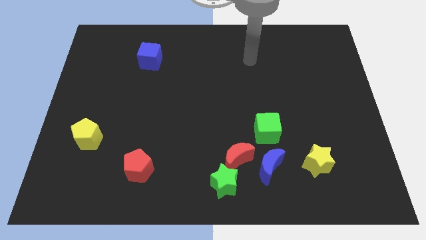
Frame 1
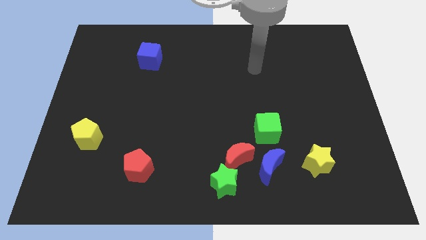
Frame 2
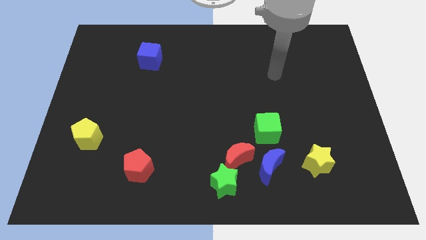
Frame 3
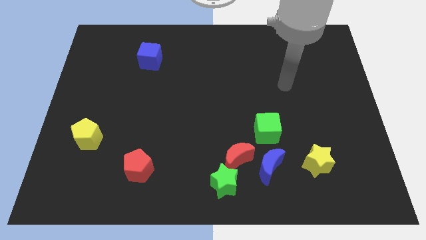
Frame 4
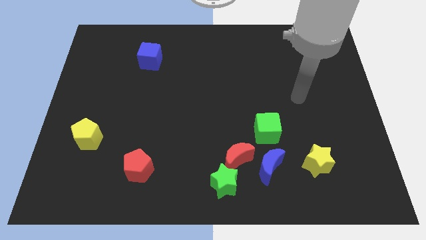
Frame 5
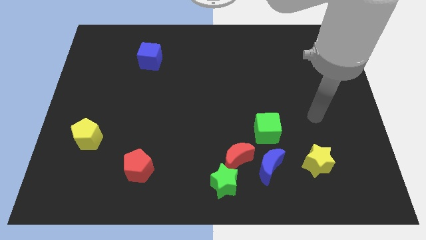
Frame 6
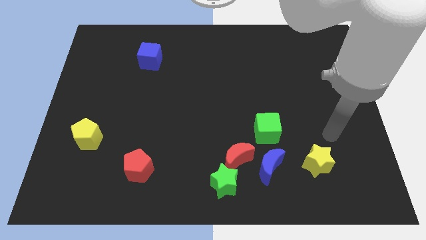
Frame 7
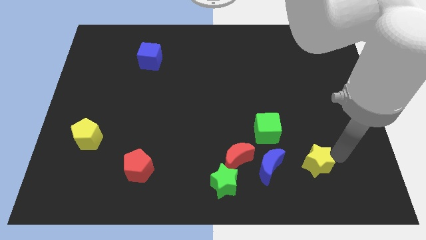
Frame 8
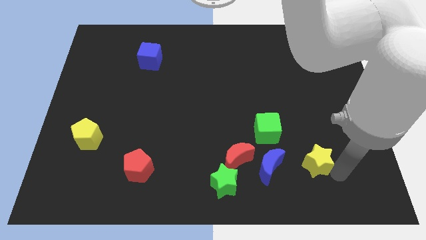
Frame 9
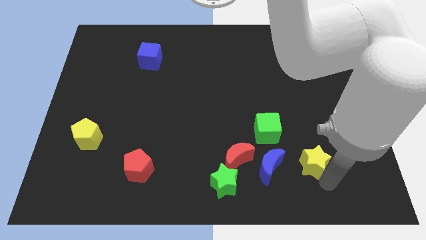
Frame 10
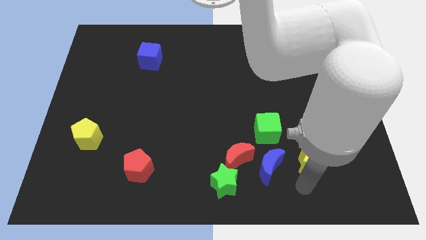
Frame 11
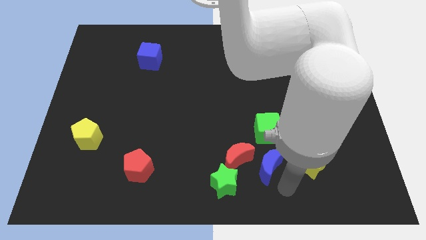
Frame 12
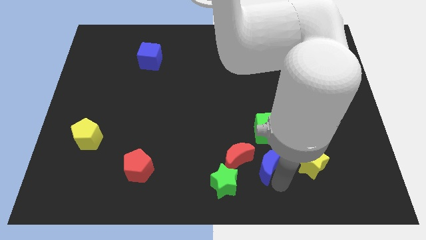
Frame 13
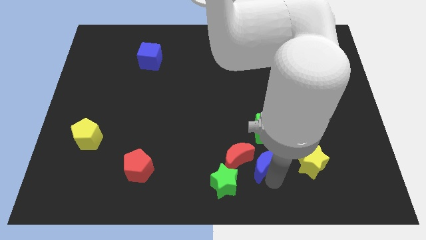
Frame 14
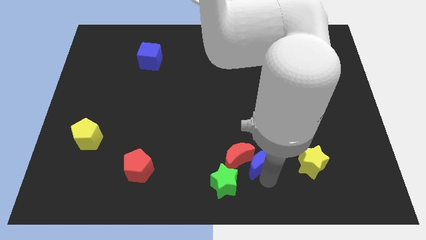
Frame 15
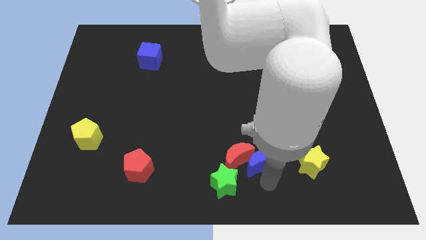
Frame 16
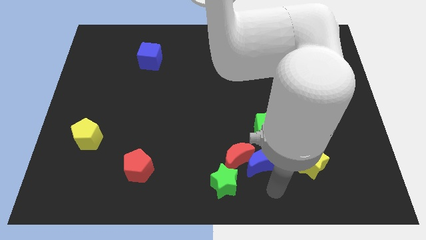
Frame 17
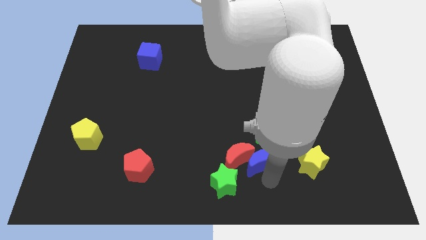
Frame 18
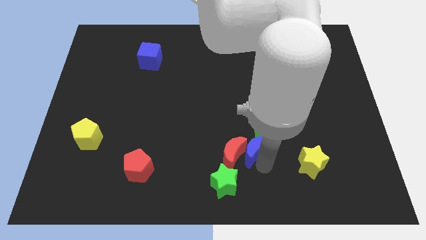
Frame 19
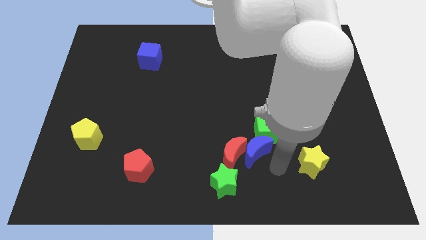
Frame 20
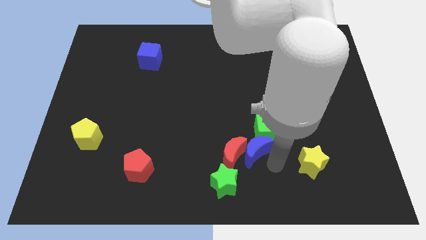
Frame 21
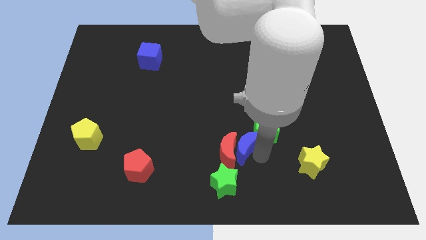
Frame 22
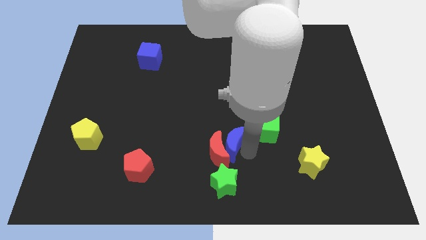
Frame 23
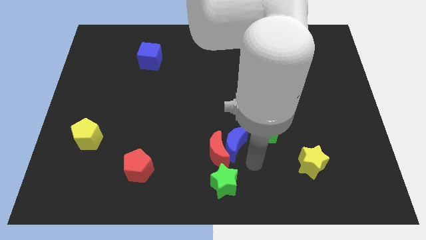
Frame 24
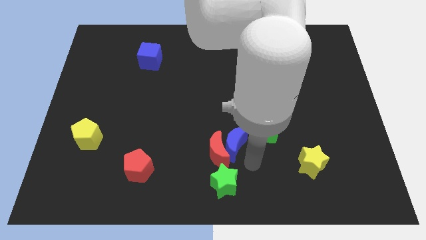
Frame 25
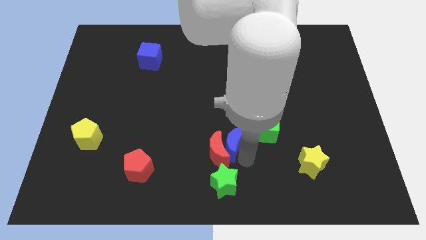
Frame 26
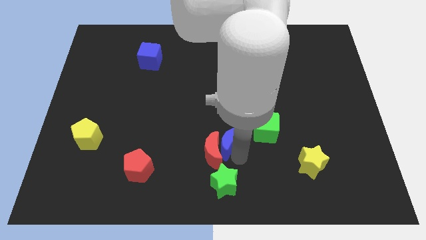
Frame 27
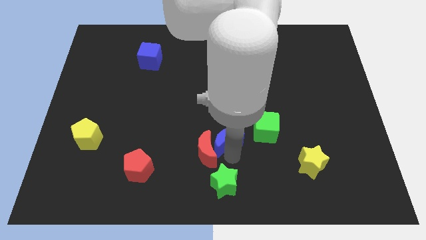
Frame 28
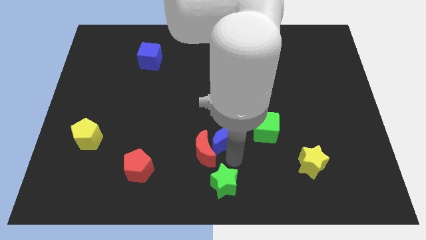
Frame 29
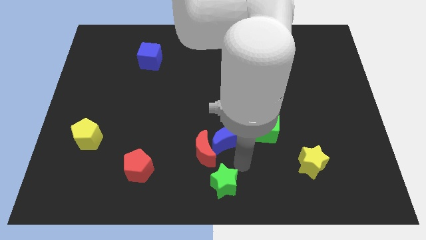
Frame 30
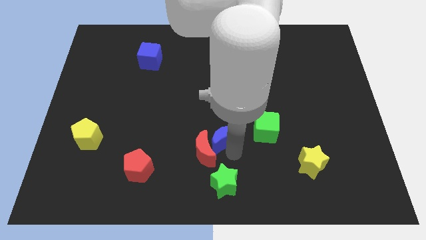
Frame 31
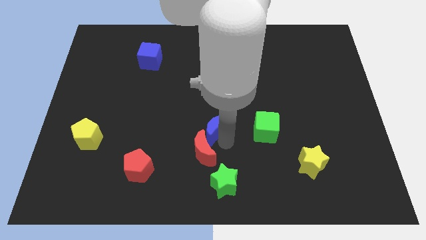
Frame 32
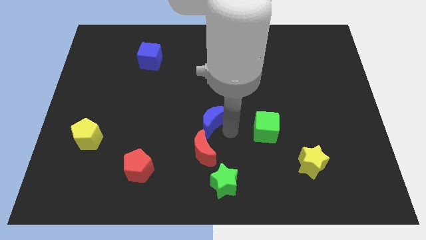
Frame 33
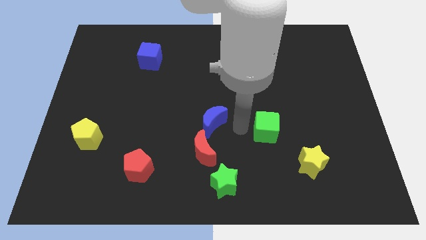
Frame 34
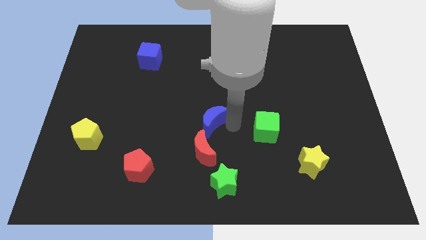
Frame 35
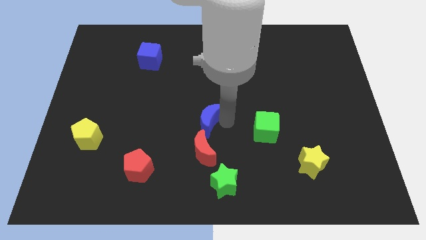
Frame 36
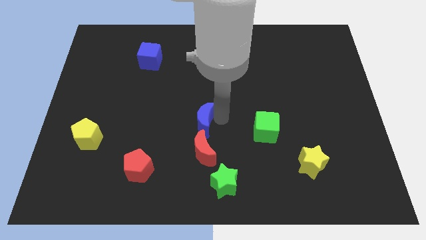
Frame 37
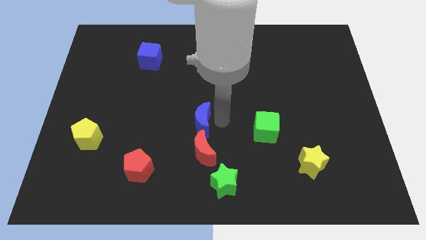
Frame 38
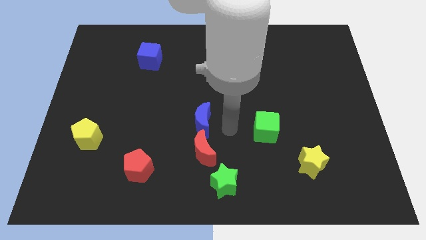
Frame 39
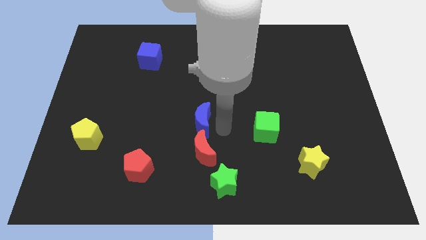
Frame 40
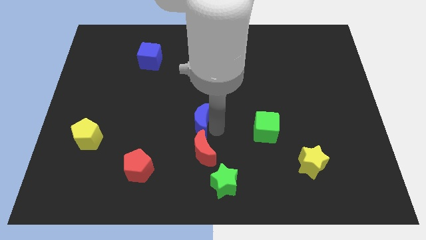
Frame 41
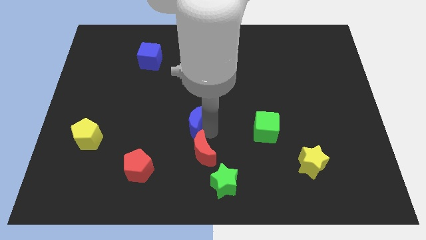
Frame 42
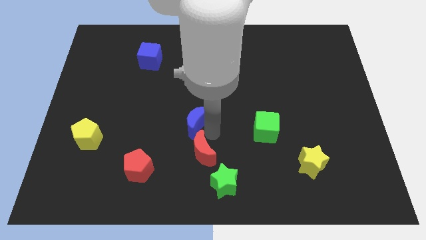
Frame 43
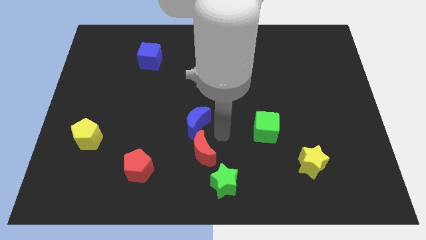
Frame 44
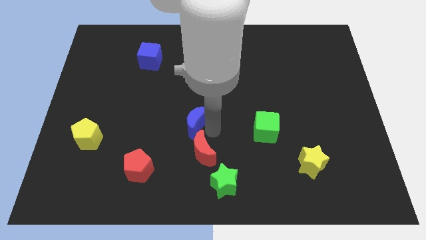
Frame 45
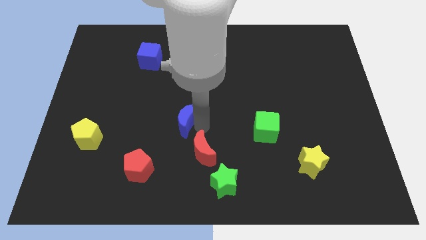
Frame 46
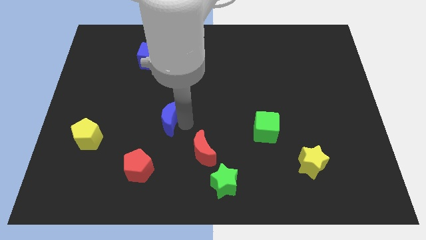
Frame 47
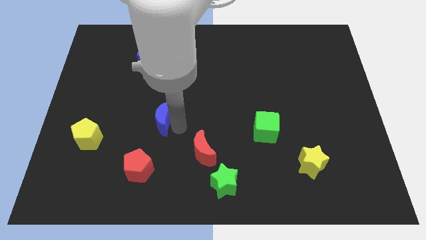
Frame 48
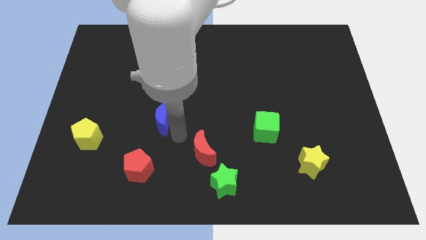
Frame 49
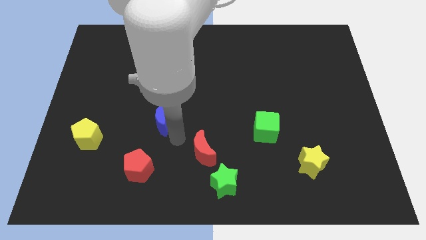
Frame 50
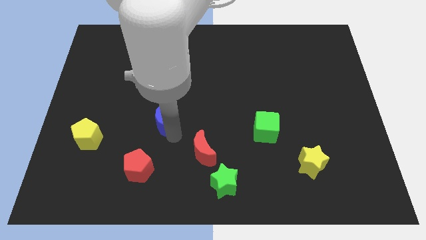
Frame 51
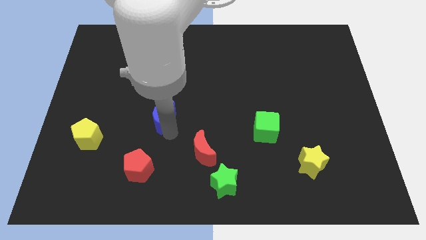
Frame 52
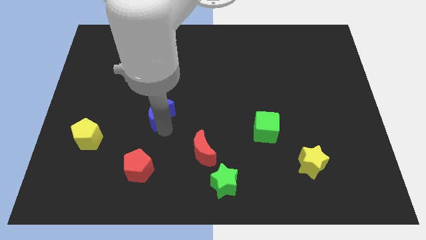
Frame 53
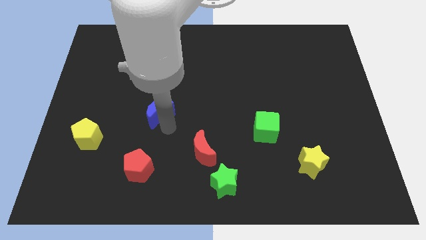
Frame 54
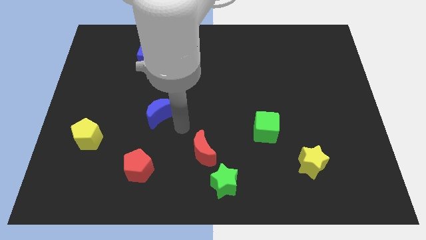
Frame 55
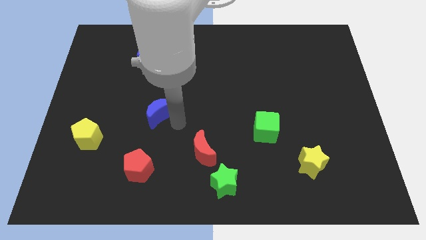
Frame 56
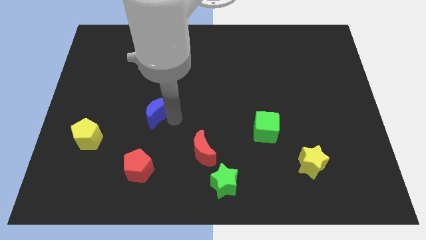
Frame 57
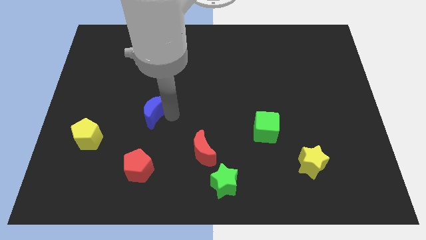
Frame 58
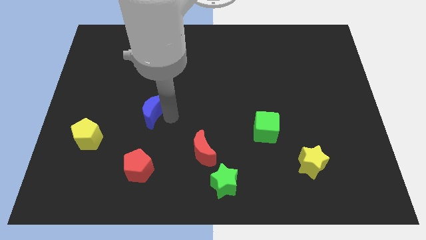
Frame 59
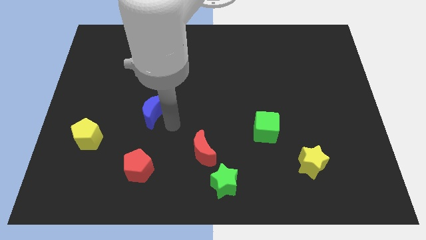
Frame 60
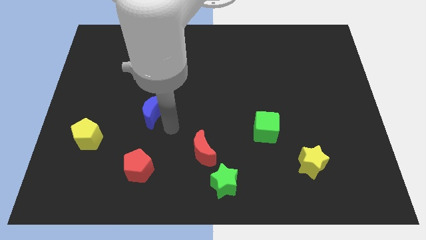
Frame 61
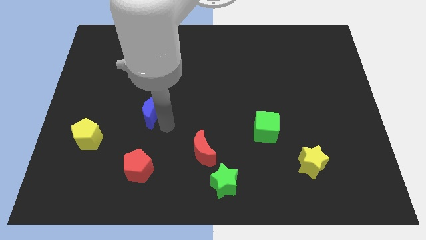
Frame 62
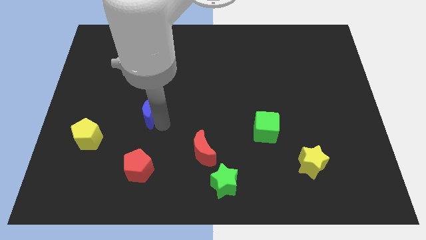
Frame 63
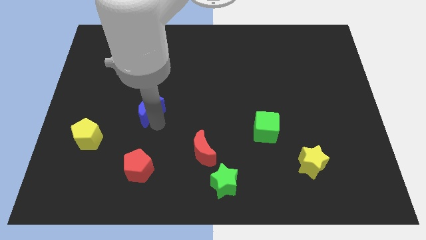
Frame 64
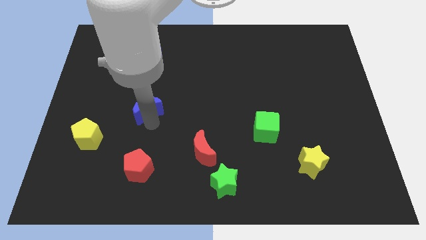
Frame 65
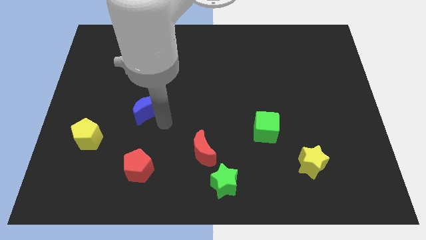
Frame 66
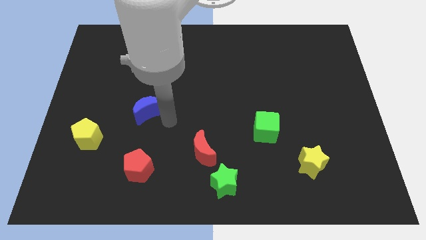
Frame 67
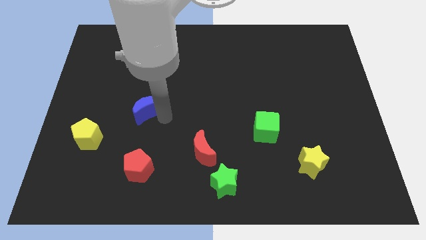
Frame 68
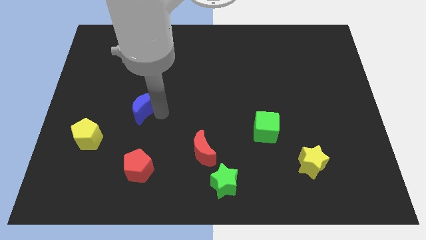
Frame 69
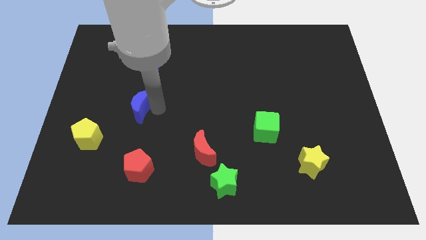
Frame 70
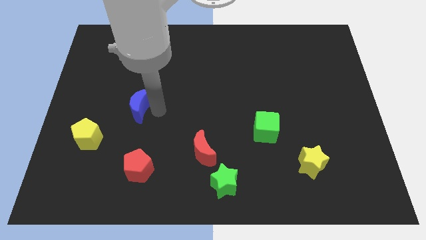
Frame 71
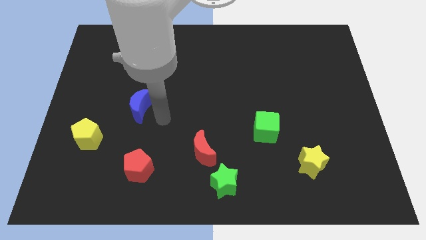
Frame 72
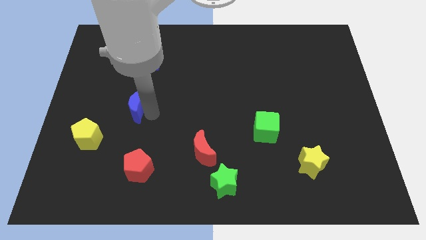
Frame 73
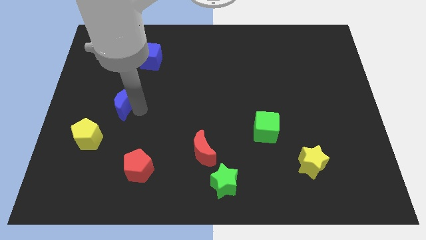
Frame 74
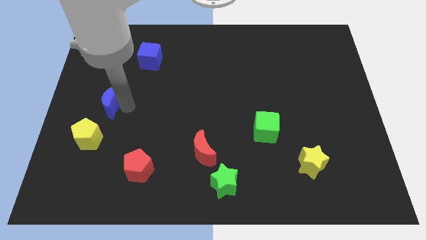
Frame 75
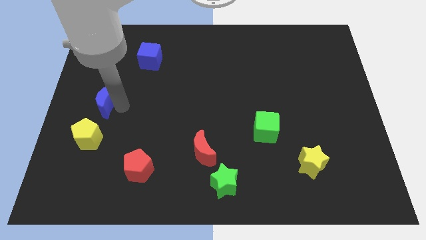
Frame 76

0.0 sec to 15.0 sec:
put the blue moon to the left side
